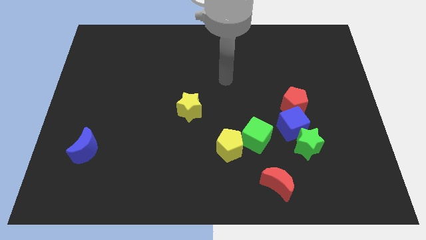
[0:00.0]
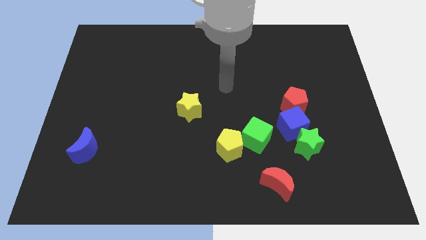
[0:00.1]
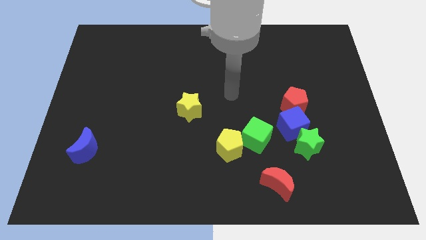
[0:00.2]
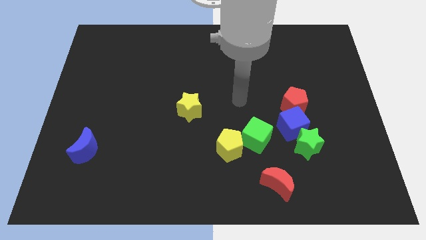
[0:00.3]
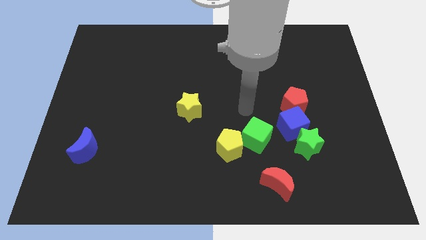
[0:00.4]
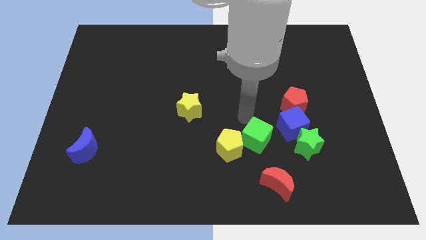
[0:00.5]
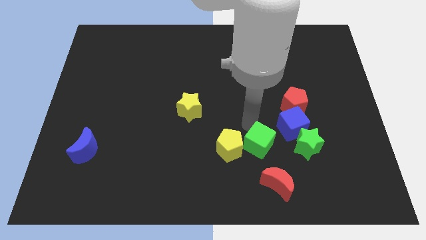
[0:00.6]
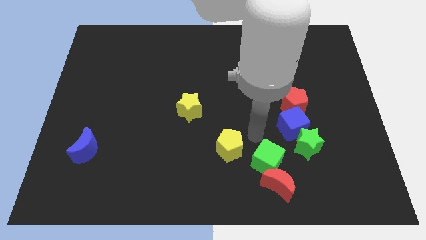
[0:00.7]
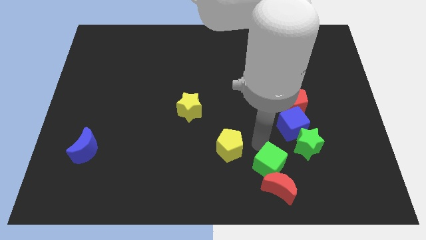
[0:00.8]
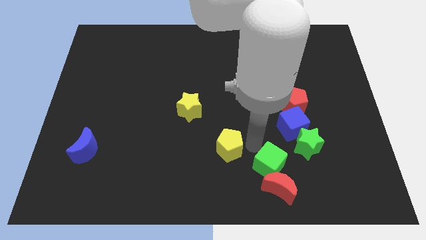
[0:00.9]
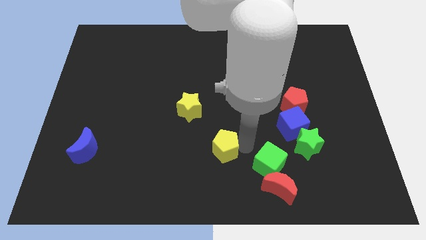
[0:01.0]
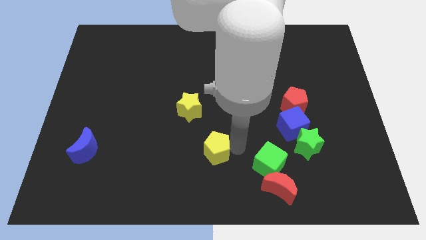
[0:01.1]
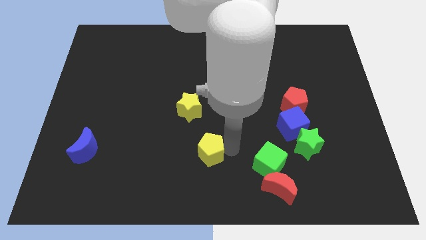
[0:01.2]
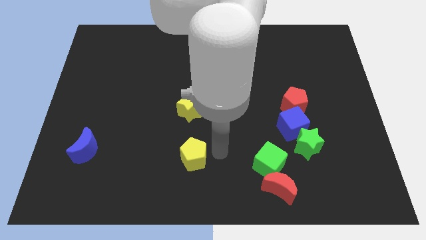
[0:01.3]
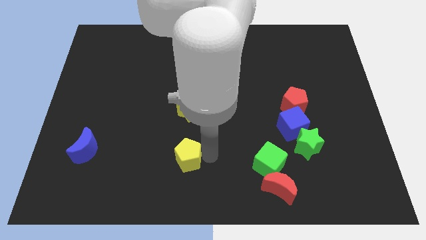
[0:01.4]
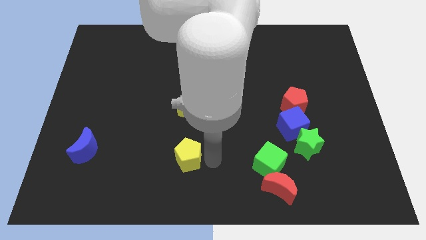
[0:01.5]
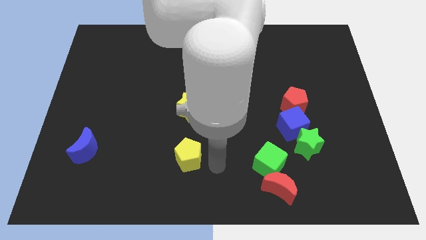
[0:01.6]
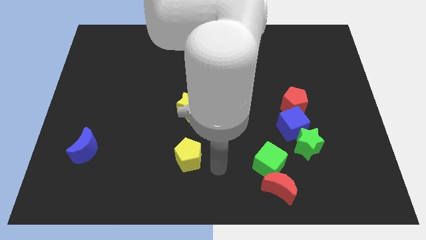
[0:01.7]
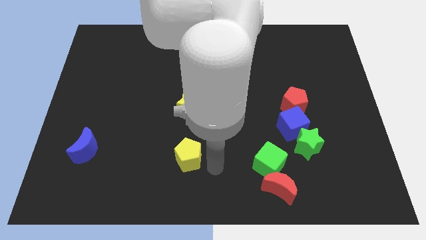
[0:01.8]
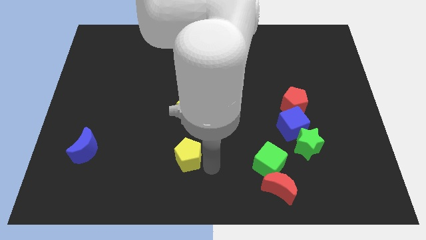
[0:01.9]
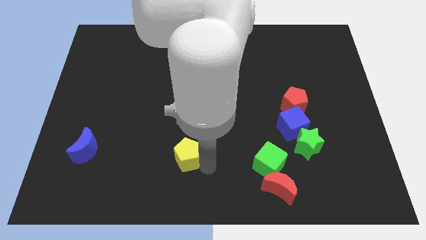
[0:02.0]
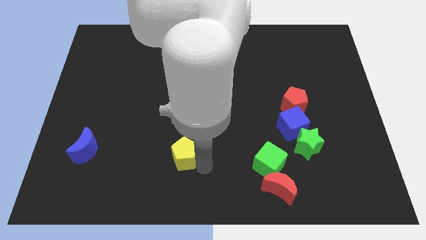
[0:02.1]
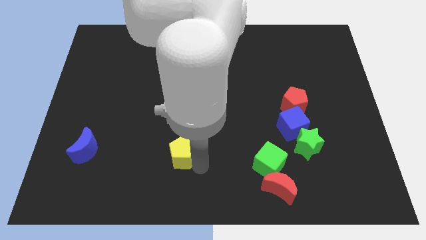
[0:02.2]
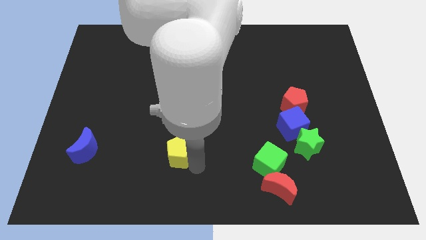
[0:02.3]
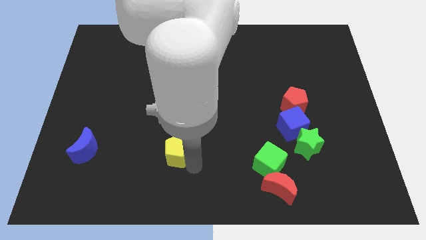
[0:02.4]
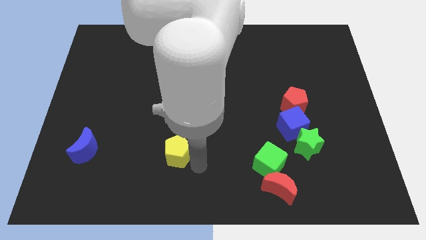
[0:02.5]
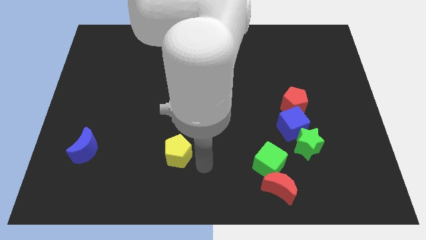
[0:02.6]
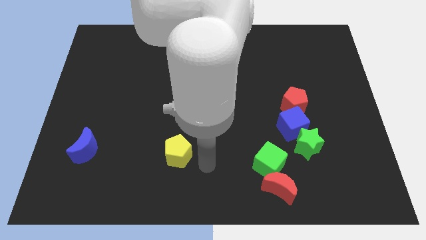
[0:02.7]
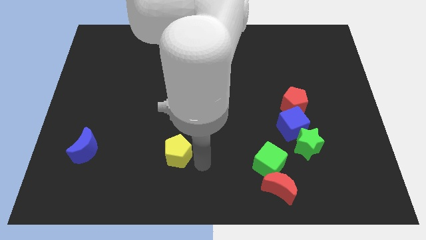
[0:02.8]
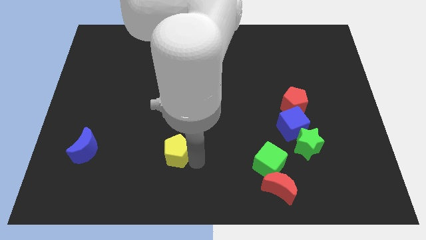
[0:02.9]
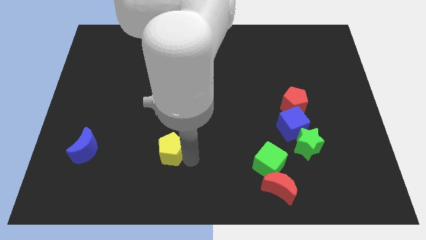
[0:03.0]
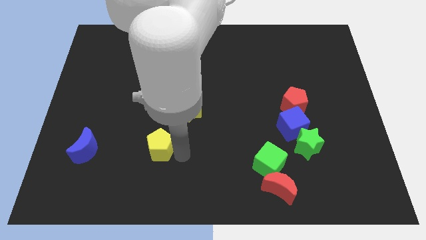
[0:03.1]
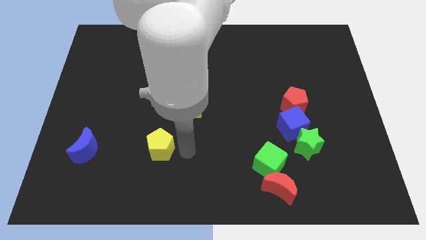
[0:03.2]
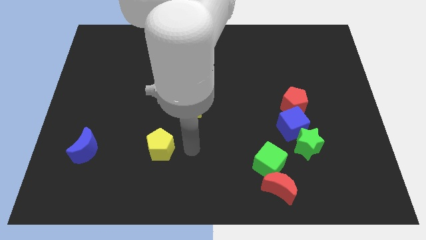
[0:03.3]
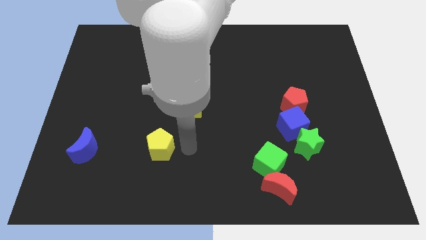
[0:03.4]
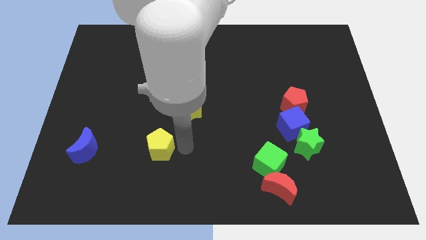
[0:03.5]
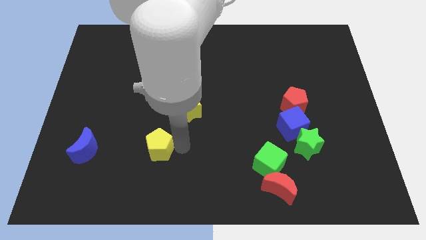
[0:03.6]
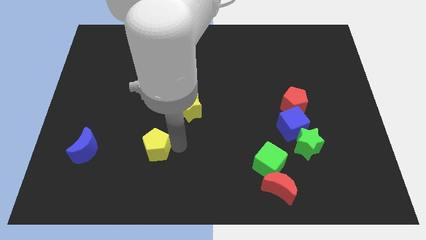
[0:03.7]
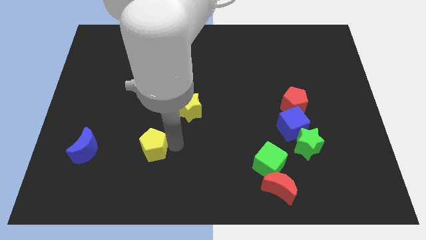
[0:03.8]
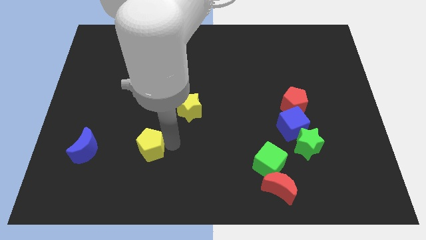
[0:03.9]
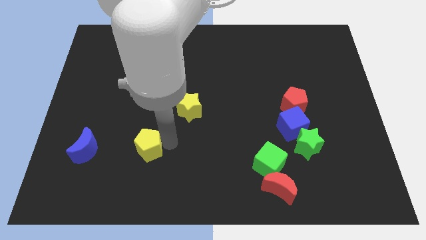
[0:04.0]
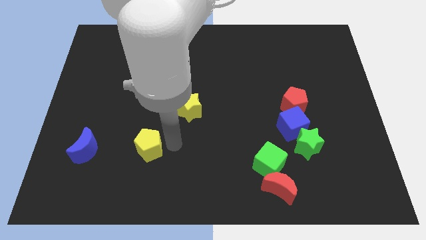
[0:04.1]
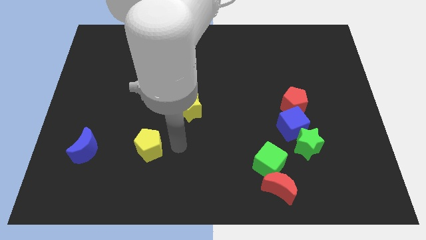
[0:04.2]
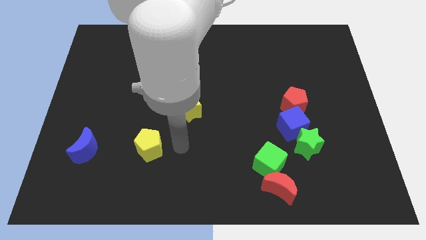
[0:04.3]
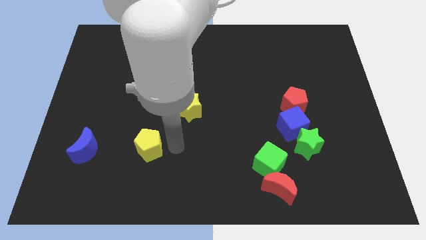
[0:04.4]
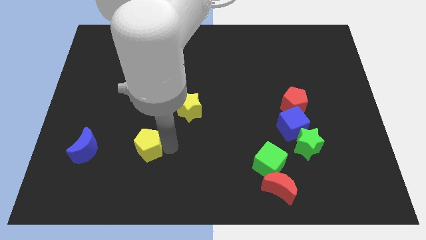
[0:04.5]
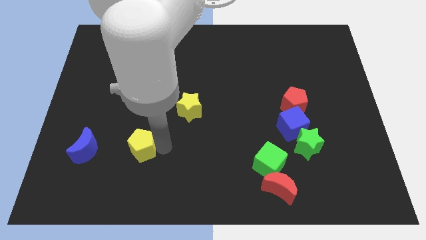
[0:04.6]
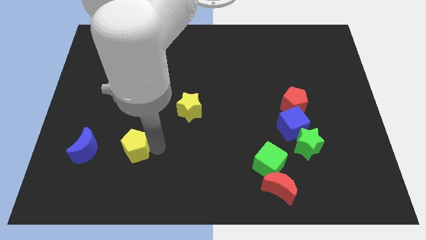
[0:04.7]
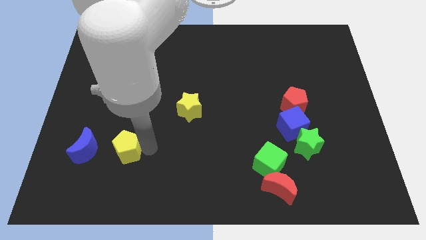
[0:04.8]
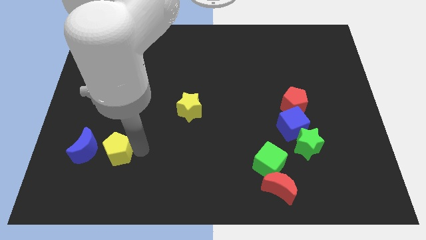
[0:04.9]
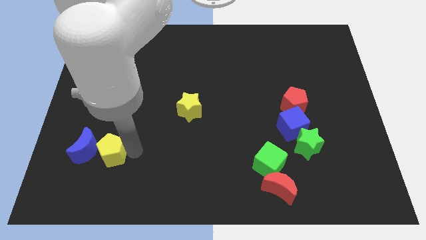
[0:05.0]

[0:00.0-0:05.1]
put the yellow pentagon to the blue moon

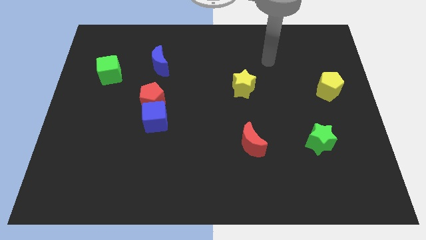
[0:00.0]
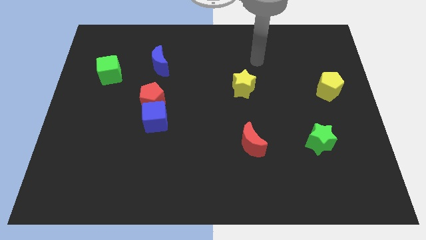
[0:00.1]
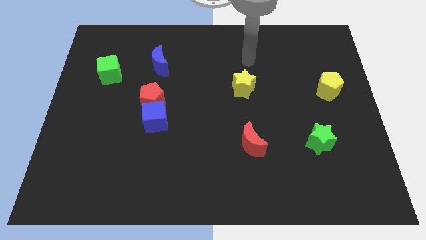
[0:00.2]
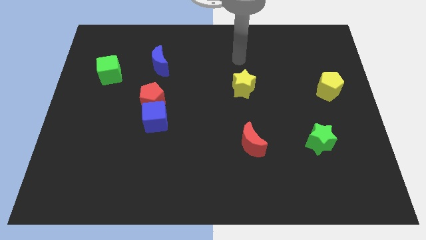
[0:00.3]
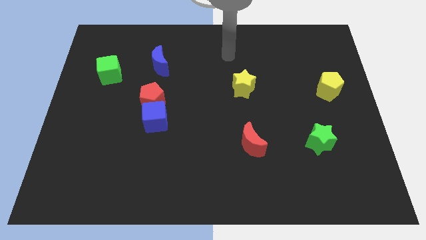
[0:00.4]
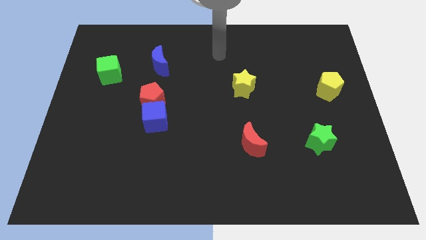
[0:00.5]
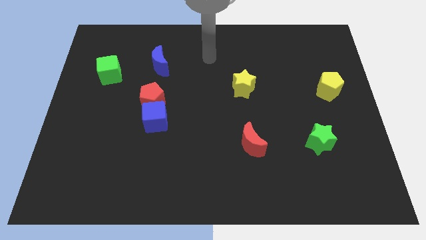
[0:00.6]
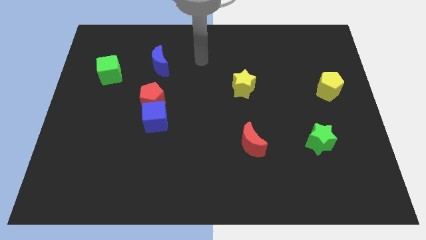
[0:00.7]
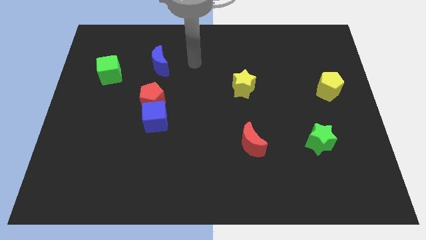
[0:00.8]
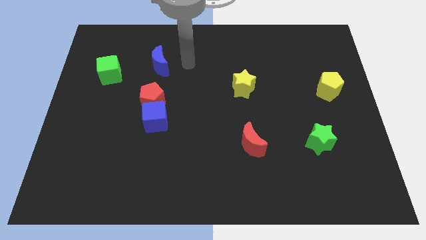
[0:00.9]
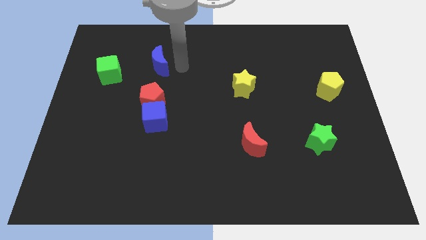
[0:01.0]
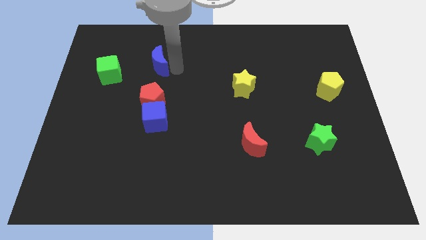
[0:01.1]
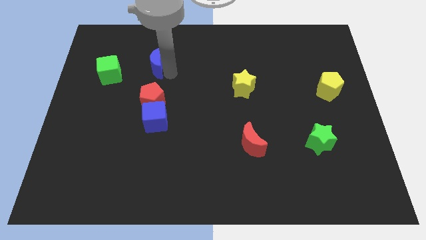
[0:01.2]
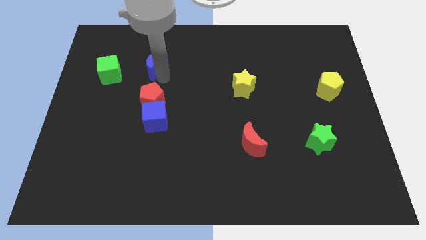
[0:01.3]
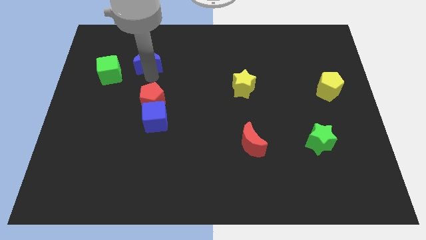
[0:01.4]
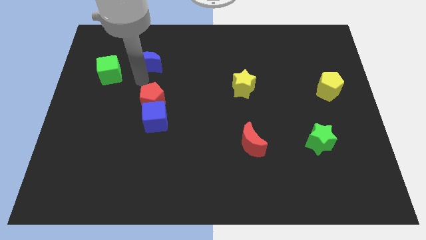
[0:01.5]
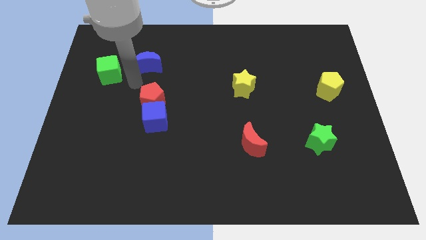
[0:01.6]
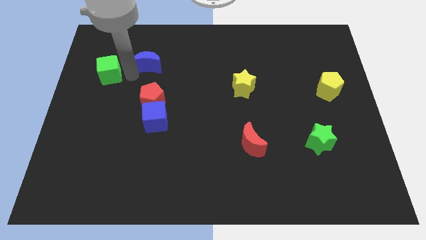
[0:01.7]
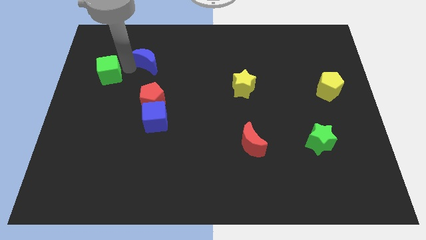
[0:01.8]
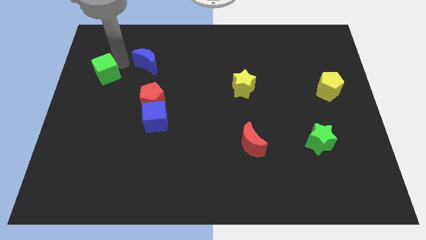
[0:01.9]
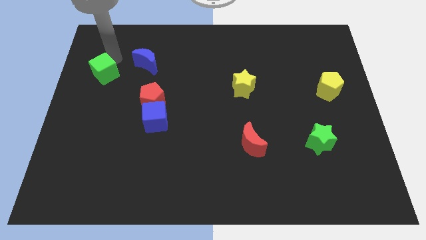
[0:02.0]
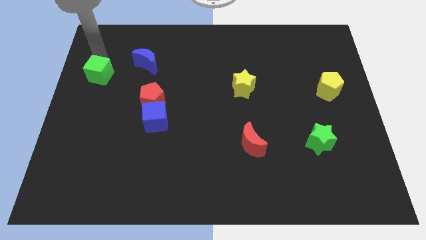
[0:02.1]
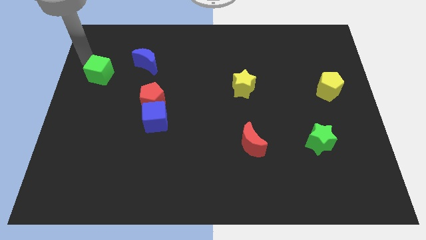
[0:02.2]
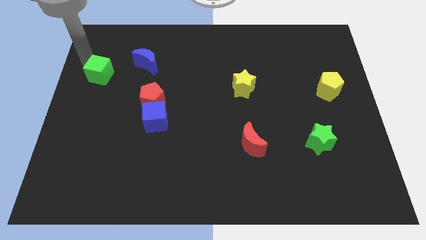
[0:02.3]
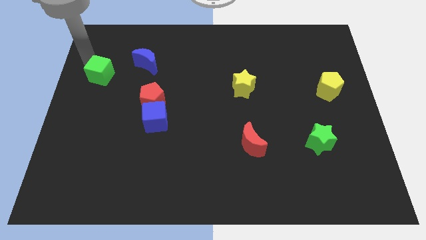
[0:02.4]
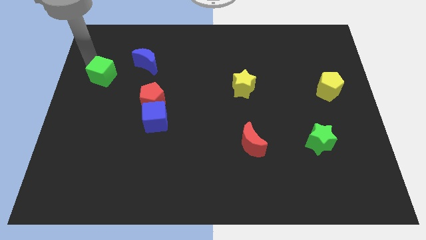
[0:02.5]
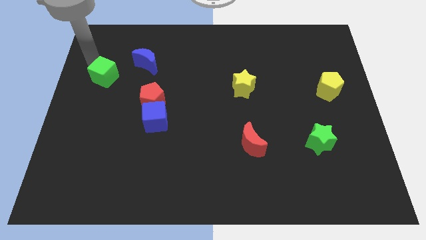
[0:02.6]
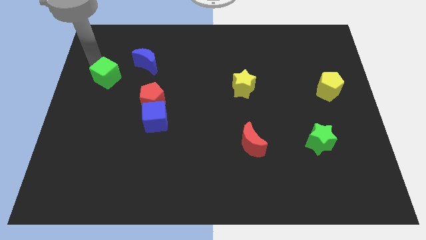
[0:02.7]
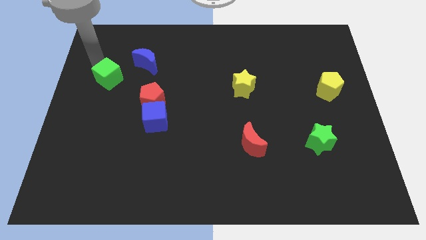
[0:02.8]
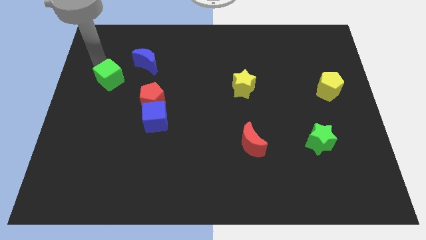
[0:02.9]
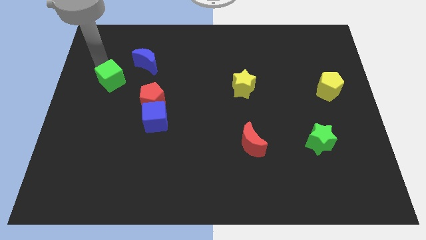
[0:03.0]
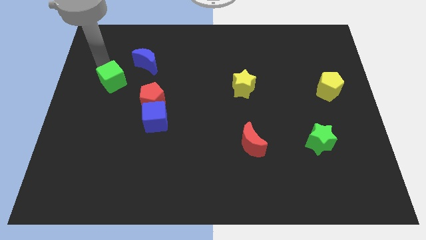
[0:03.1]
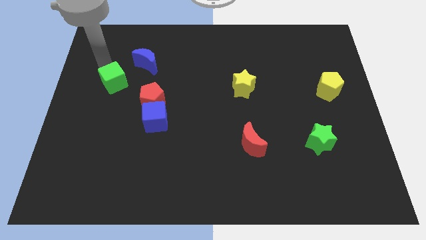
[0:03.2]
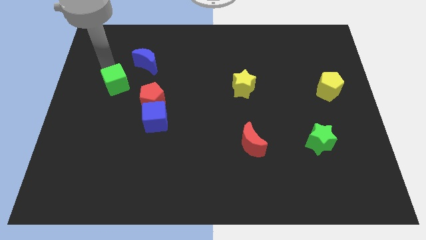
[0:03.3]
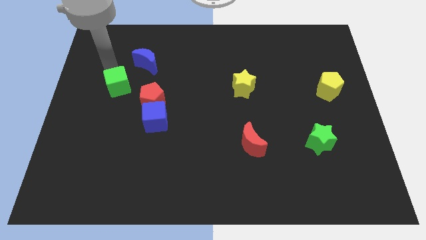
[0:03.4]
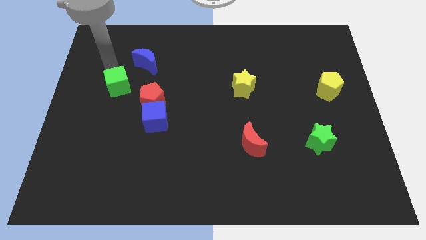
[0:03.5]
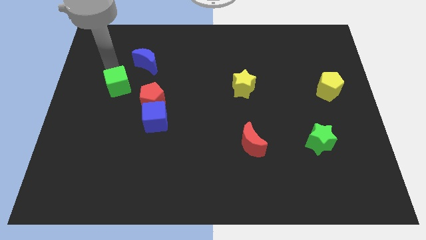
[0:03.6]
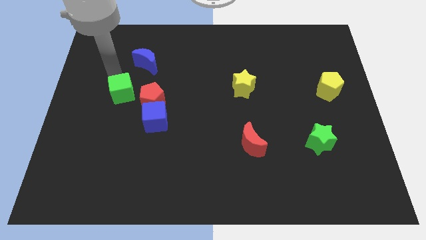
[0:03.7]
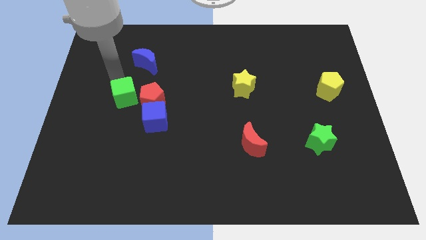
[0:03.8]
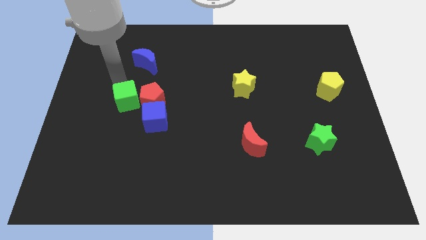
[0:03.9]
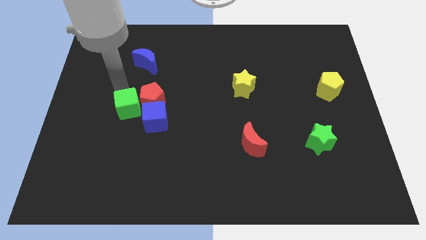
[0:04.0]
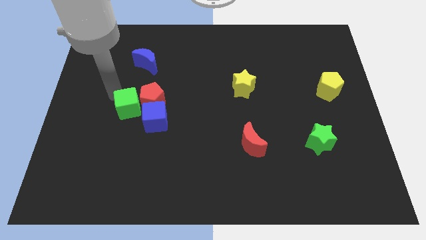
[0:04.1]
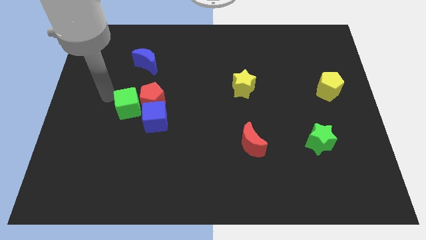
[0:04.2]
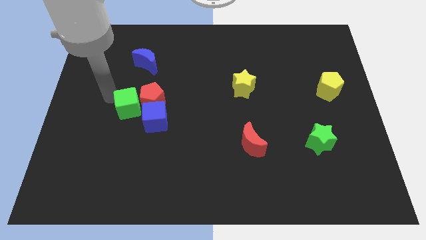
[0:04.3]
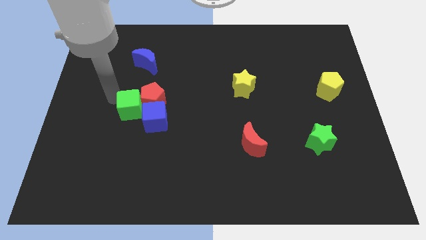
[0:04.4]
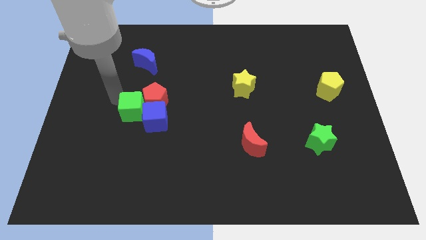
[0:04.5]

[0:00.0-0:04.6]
move the green cube next to the blue cube
